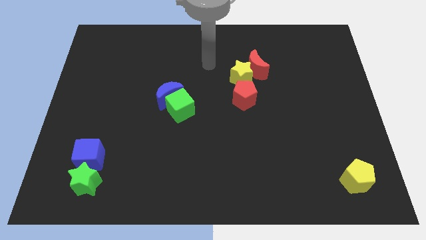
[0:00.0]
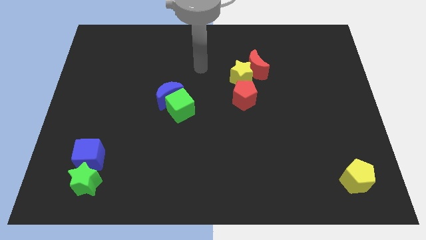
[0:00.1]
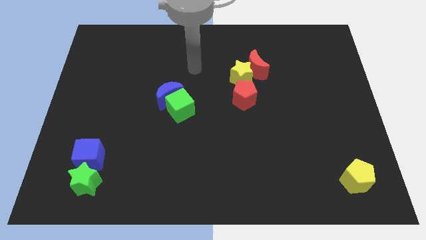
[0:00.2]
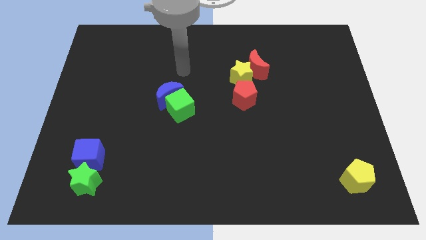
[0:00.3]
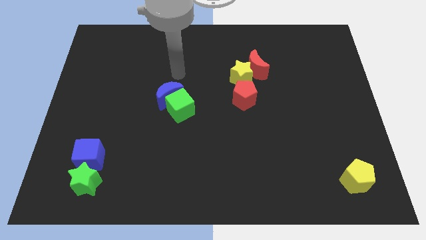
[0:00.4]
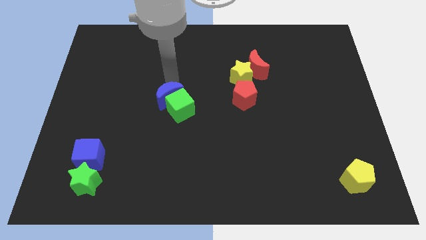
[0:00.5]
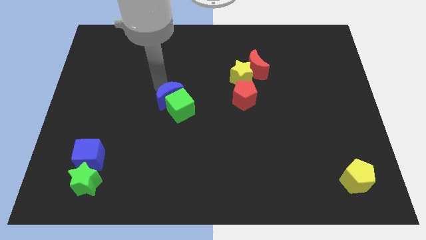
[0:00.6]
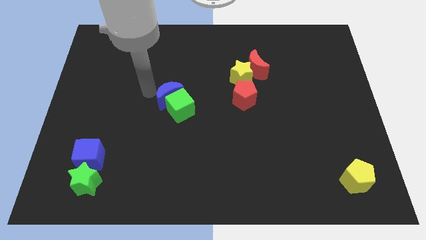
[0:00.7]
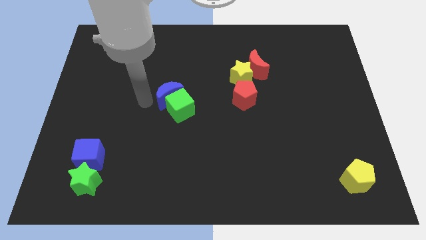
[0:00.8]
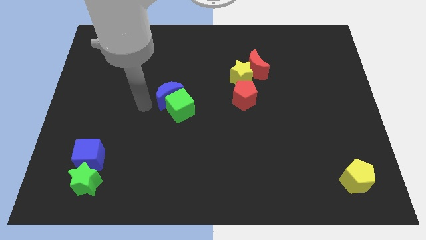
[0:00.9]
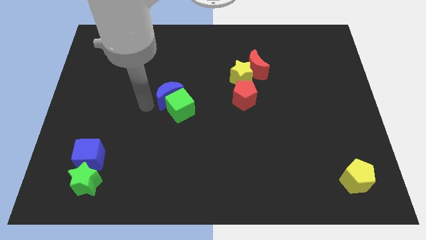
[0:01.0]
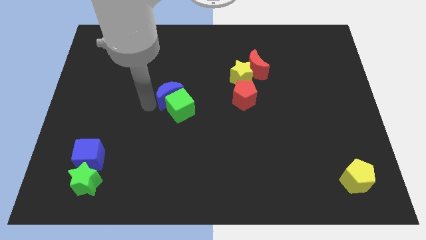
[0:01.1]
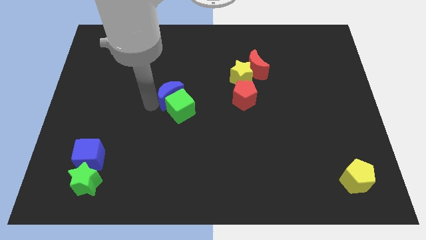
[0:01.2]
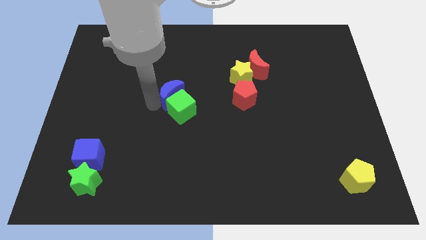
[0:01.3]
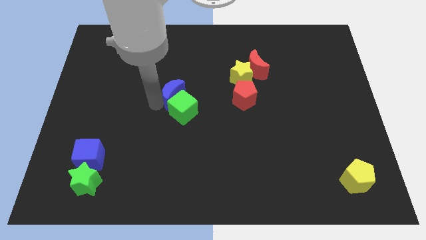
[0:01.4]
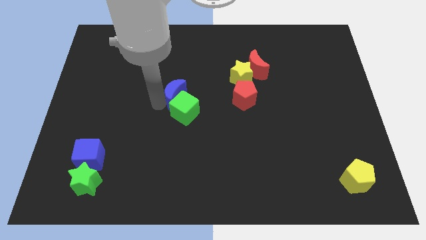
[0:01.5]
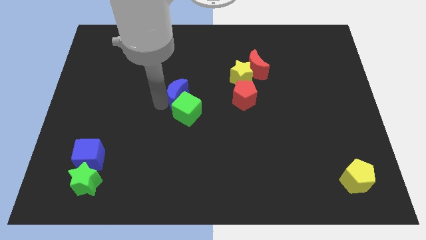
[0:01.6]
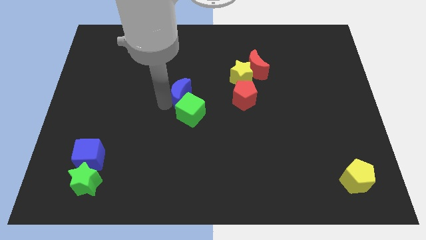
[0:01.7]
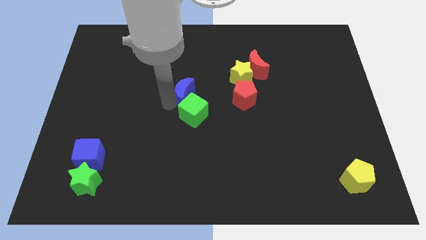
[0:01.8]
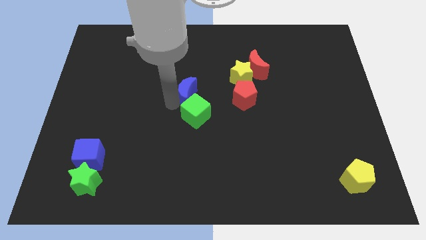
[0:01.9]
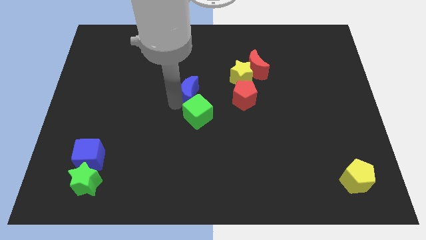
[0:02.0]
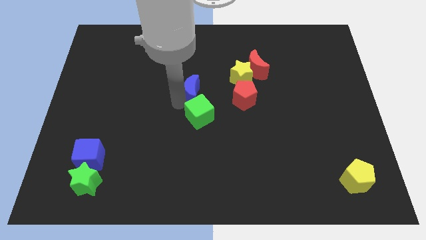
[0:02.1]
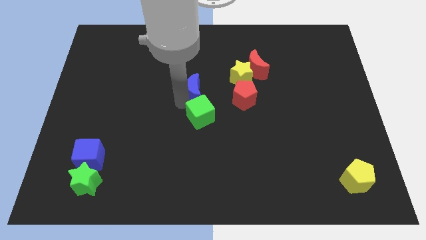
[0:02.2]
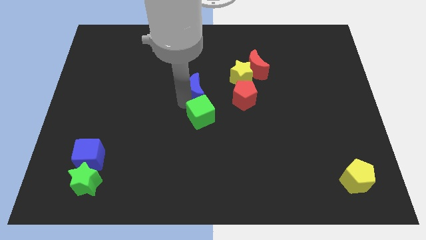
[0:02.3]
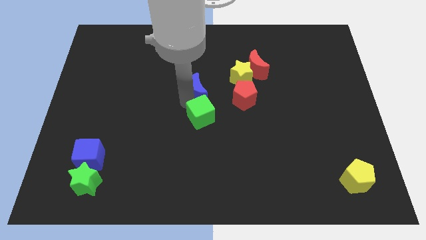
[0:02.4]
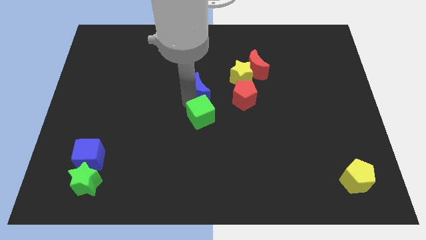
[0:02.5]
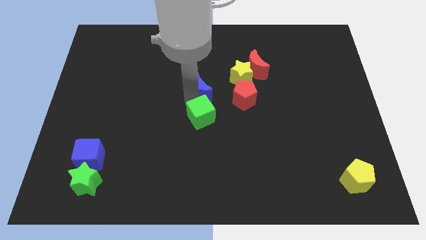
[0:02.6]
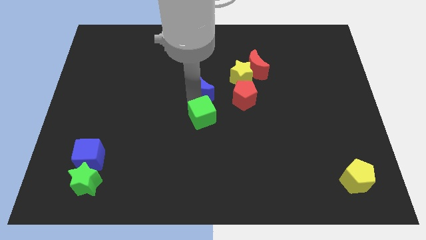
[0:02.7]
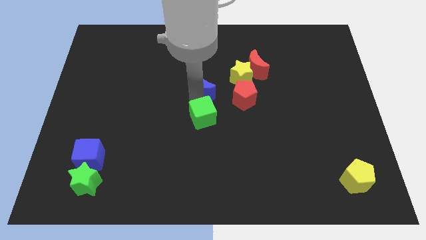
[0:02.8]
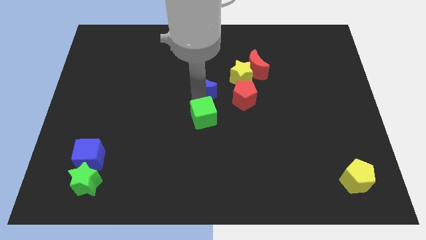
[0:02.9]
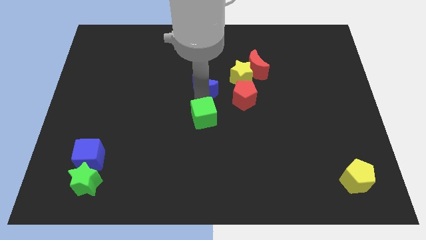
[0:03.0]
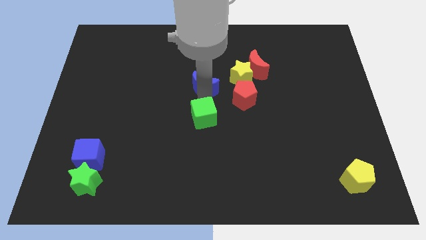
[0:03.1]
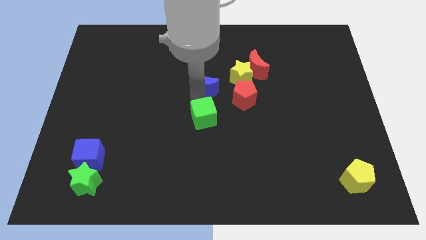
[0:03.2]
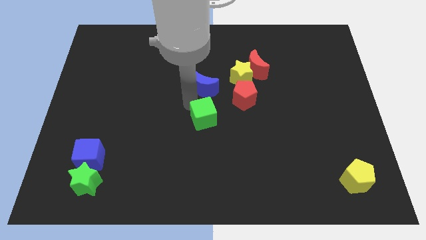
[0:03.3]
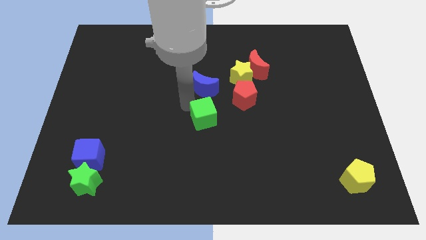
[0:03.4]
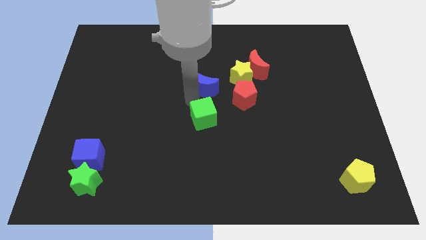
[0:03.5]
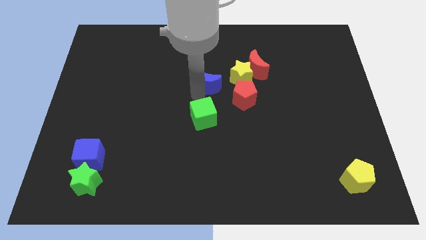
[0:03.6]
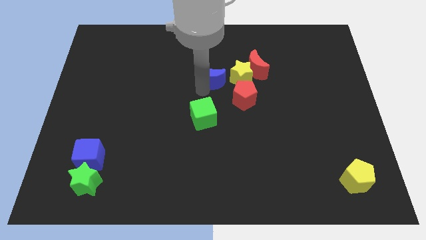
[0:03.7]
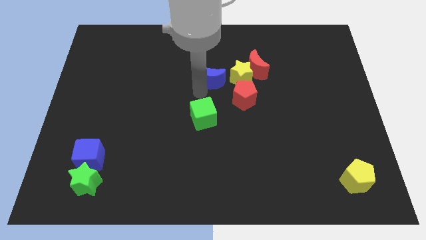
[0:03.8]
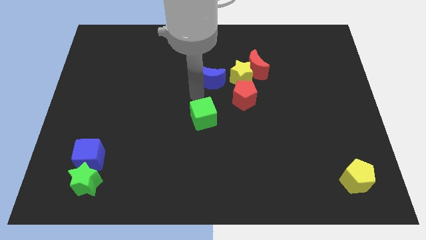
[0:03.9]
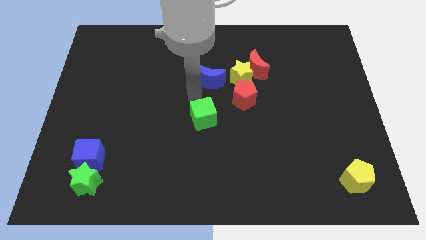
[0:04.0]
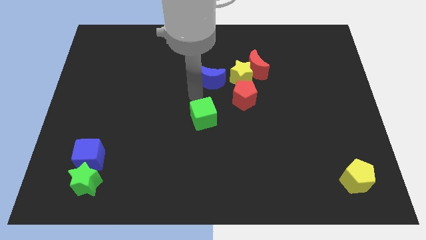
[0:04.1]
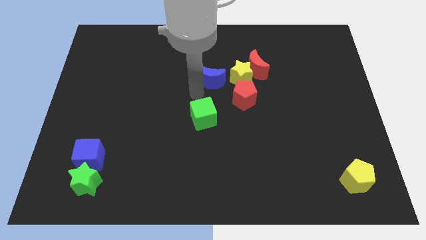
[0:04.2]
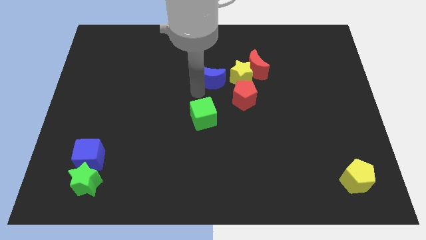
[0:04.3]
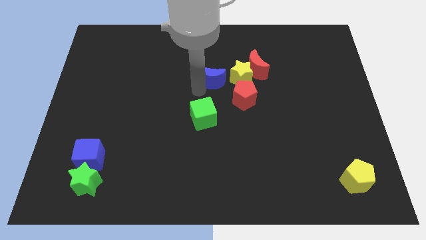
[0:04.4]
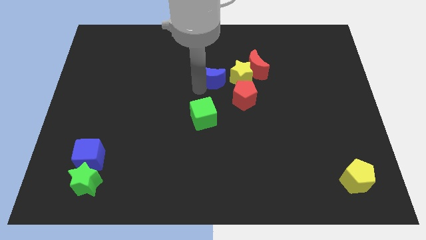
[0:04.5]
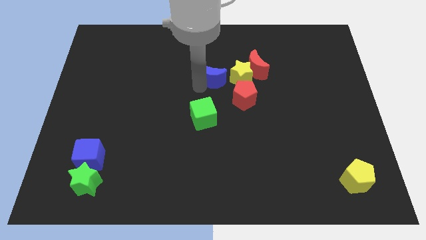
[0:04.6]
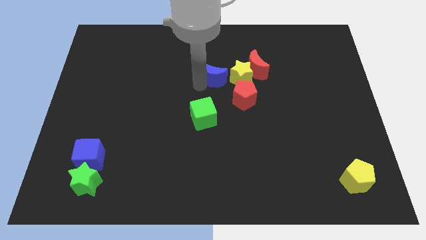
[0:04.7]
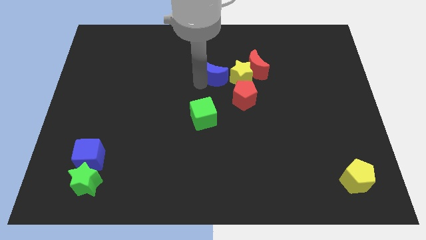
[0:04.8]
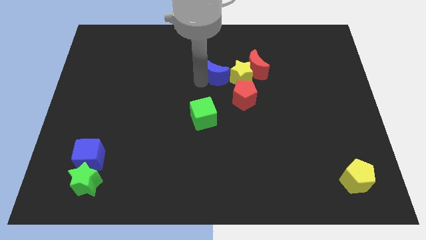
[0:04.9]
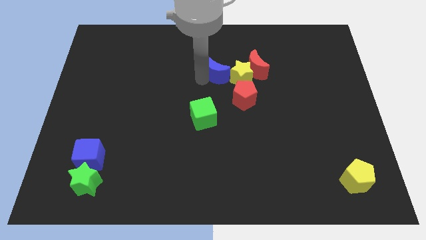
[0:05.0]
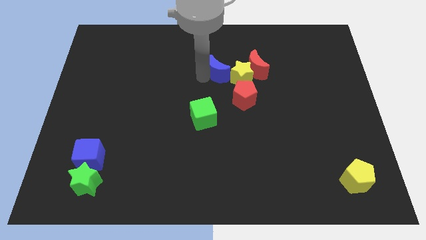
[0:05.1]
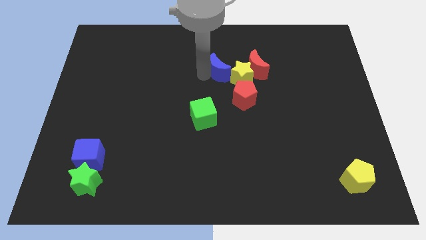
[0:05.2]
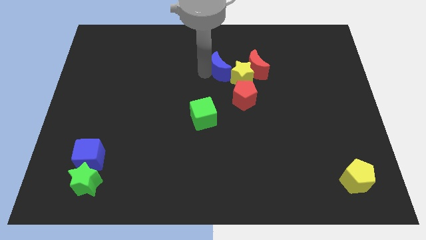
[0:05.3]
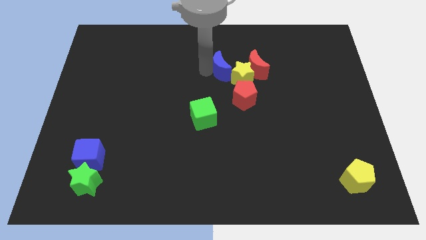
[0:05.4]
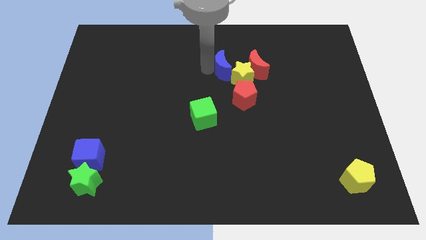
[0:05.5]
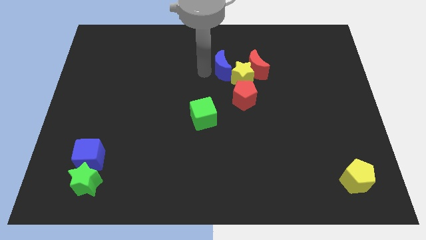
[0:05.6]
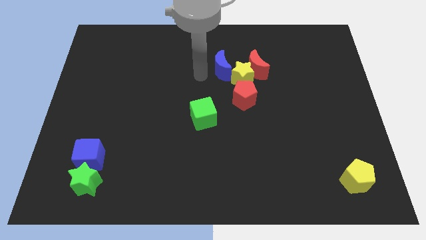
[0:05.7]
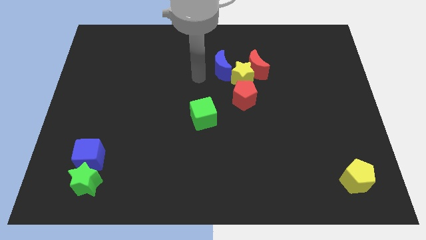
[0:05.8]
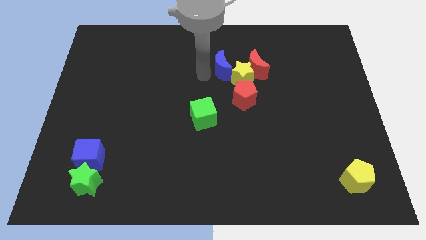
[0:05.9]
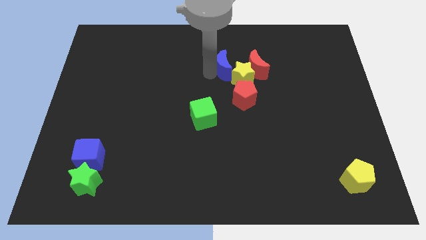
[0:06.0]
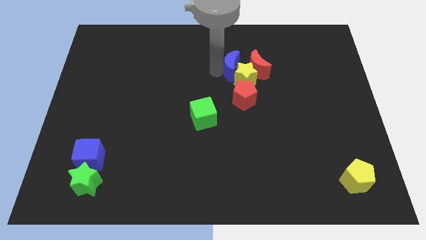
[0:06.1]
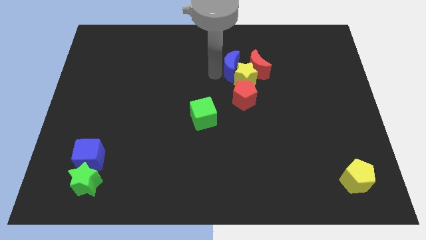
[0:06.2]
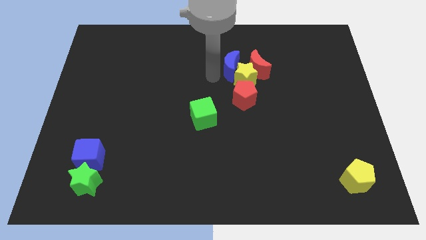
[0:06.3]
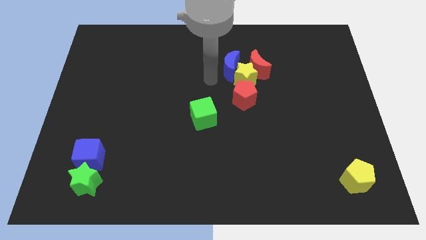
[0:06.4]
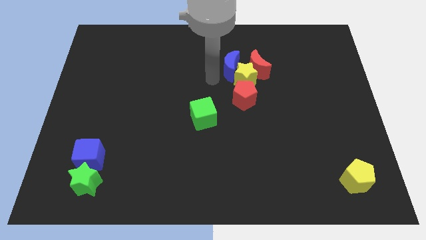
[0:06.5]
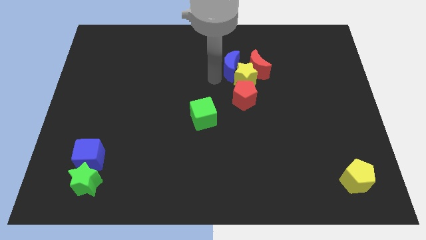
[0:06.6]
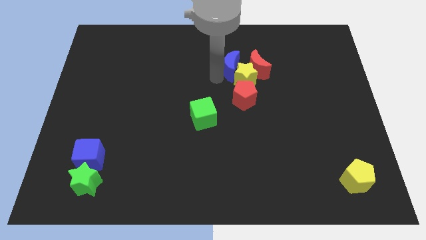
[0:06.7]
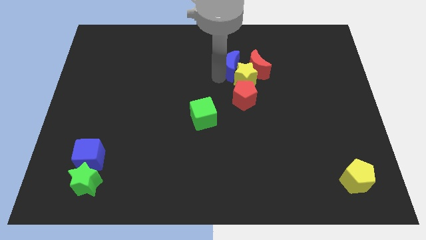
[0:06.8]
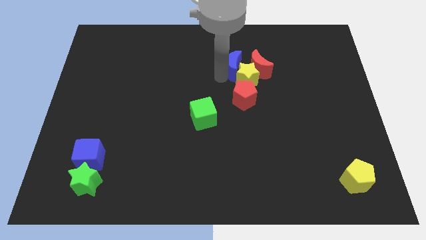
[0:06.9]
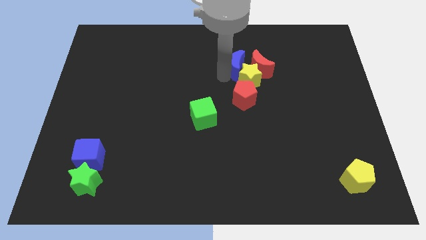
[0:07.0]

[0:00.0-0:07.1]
put the blue moon next to the red moon

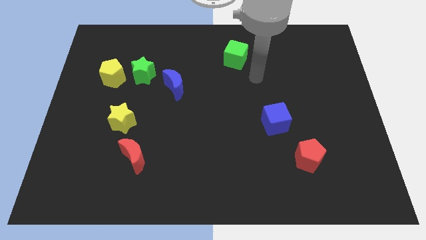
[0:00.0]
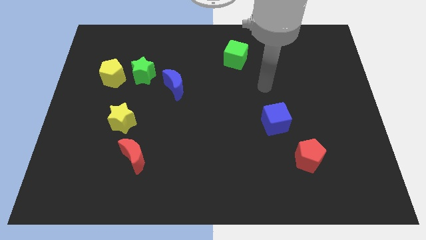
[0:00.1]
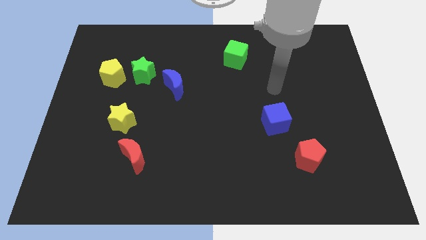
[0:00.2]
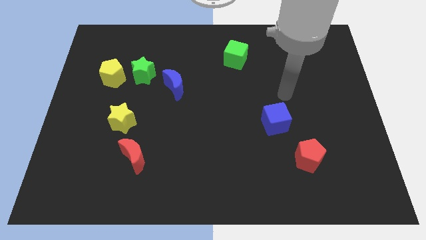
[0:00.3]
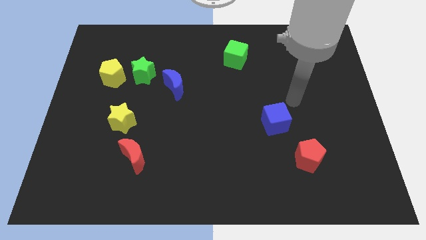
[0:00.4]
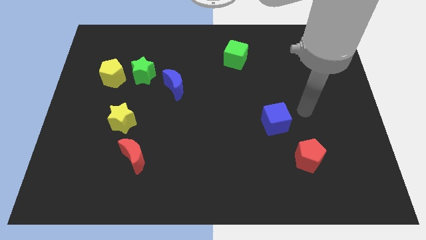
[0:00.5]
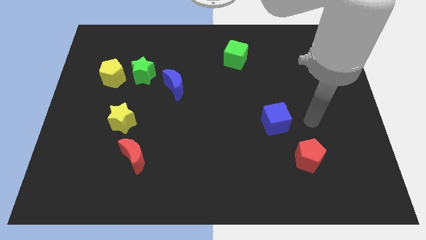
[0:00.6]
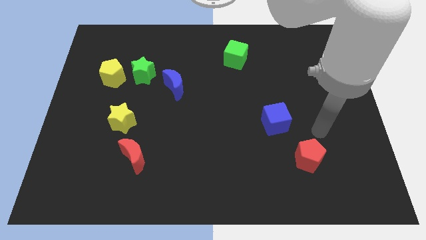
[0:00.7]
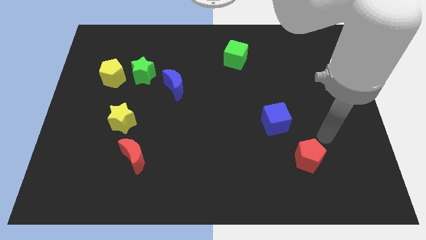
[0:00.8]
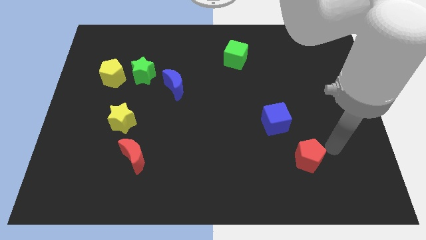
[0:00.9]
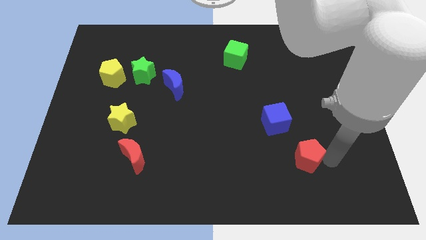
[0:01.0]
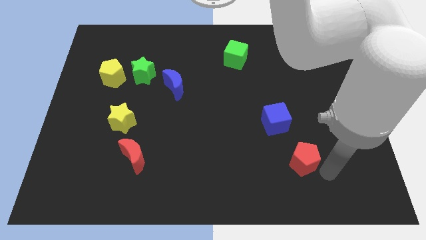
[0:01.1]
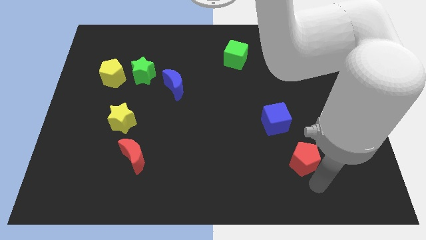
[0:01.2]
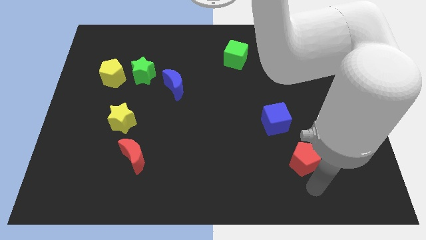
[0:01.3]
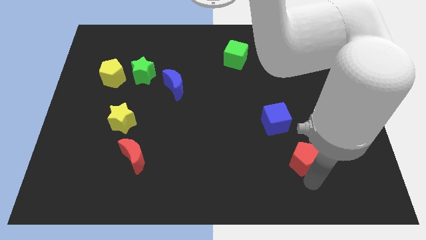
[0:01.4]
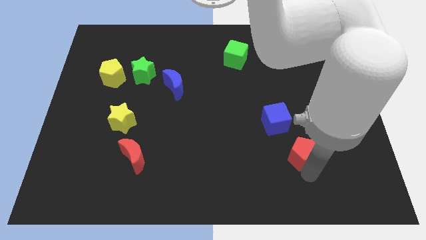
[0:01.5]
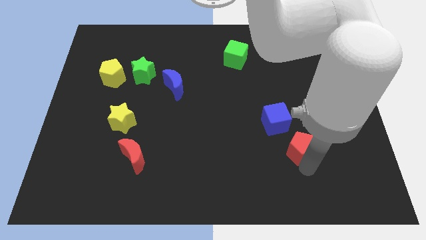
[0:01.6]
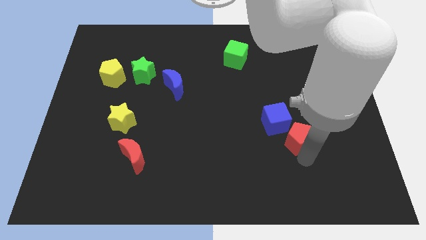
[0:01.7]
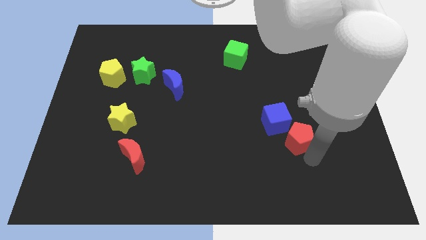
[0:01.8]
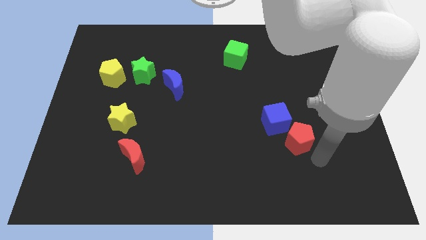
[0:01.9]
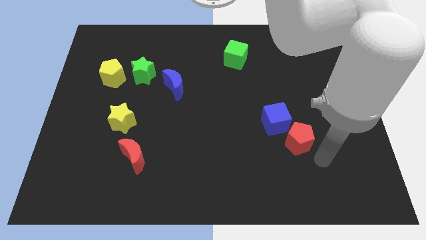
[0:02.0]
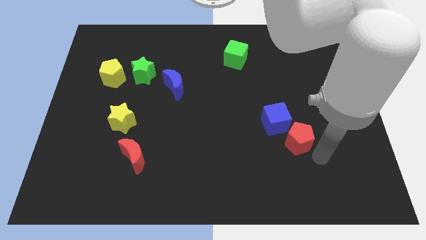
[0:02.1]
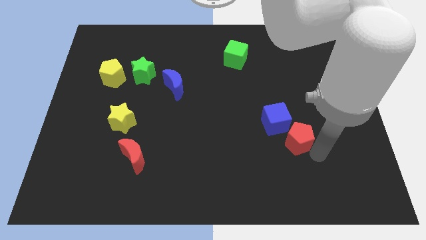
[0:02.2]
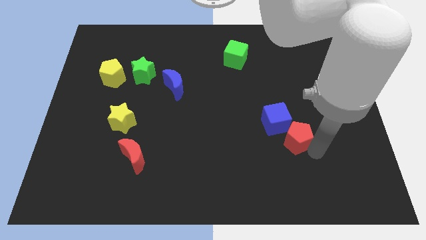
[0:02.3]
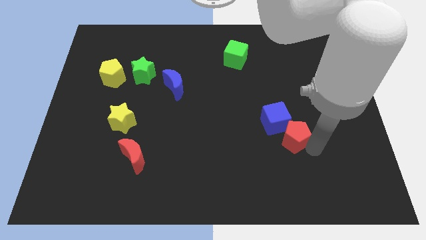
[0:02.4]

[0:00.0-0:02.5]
slide the red pentagon close to the blue cube
